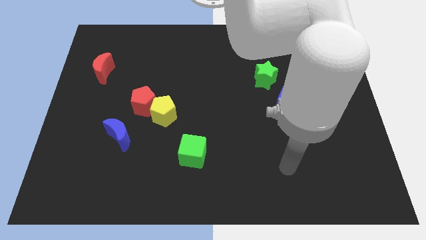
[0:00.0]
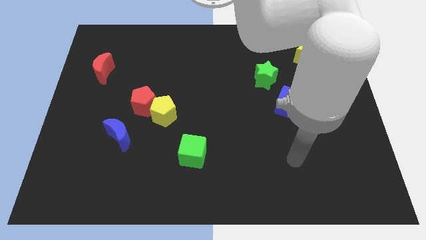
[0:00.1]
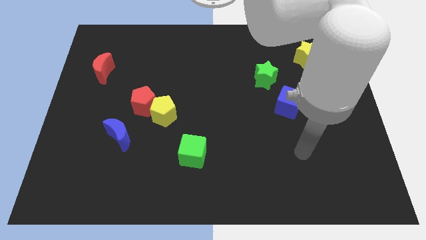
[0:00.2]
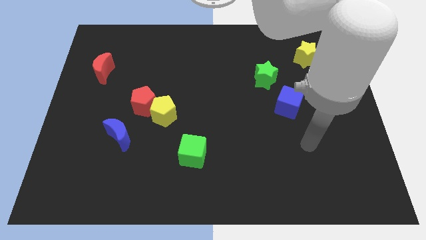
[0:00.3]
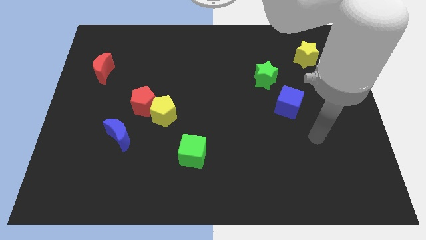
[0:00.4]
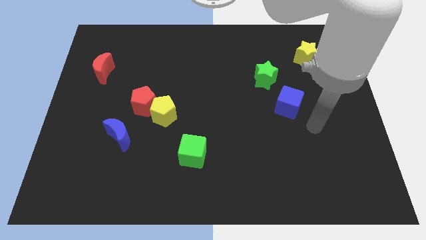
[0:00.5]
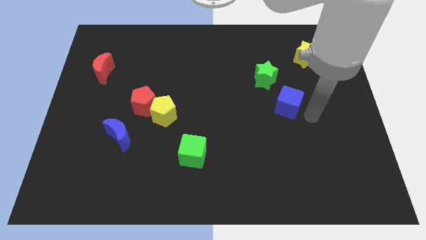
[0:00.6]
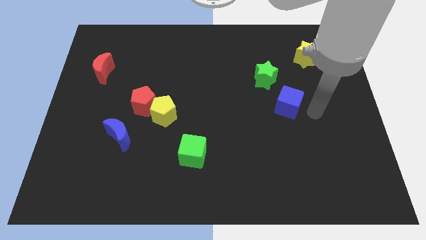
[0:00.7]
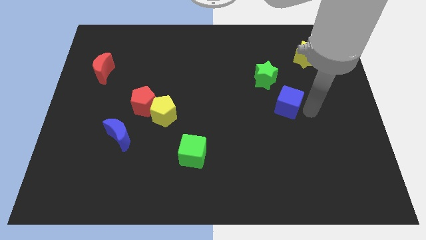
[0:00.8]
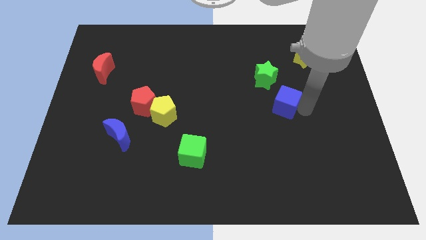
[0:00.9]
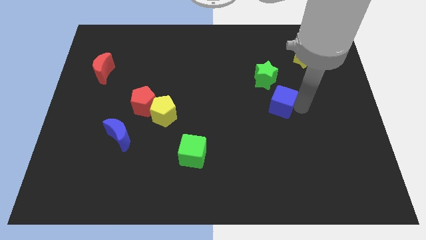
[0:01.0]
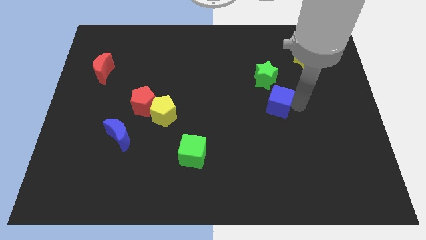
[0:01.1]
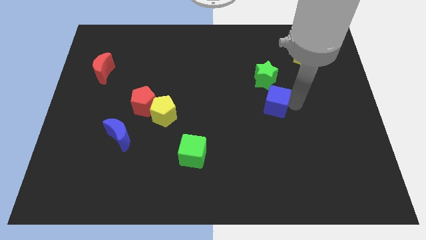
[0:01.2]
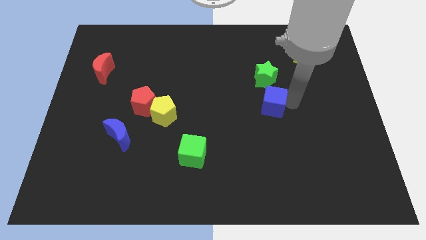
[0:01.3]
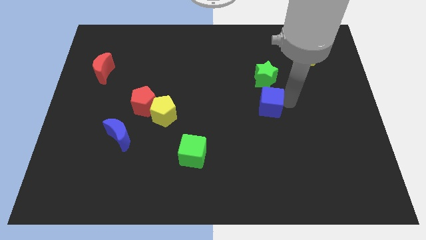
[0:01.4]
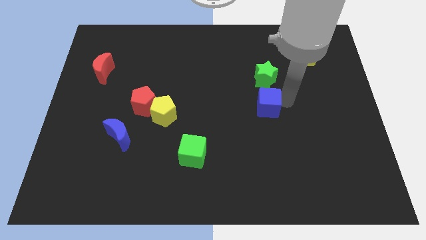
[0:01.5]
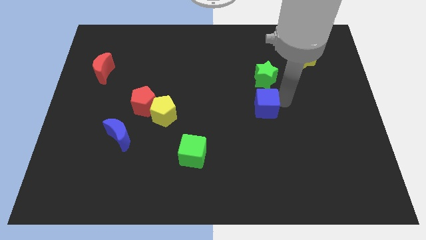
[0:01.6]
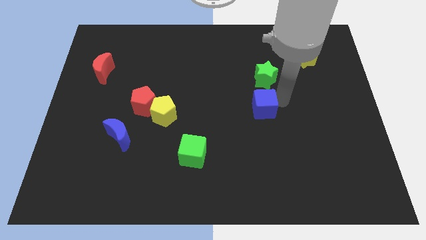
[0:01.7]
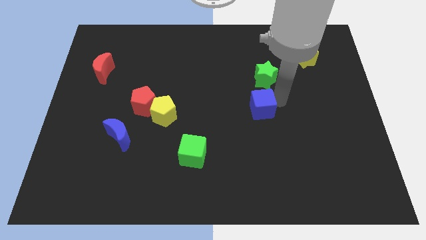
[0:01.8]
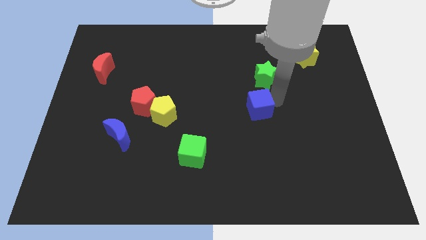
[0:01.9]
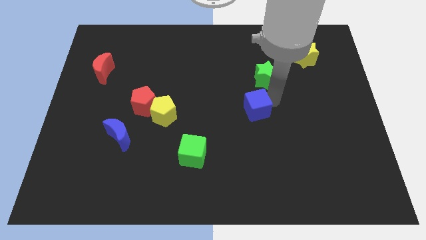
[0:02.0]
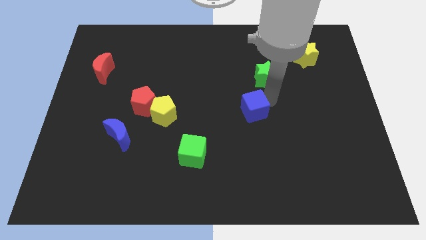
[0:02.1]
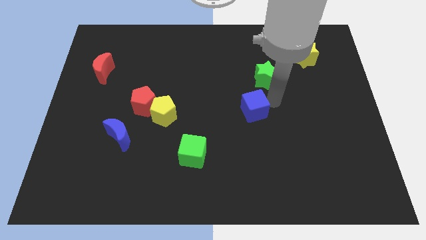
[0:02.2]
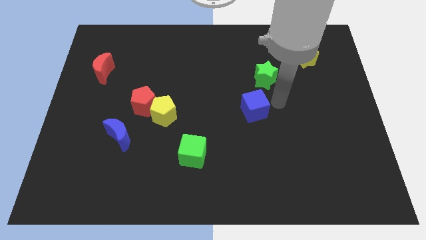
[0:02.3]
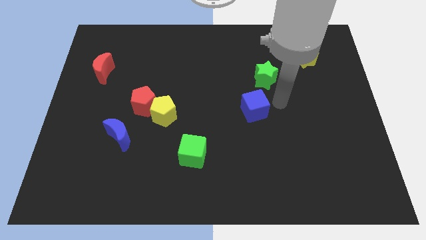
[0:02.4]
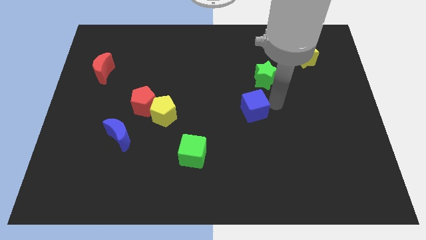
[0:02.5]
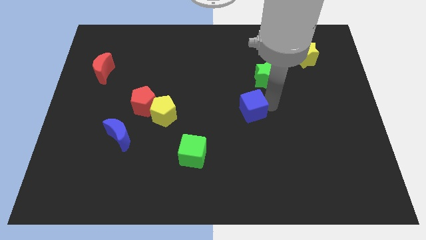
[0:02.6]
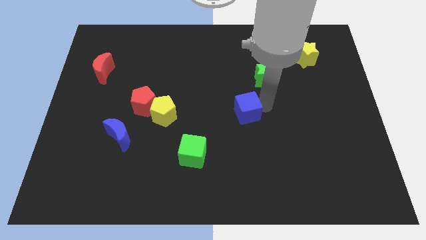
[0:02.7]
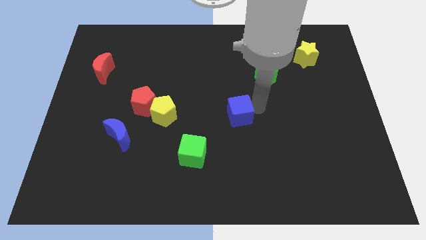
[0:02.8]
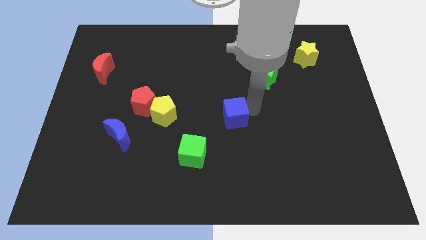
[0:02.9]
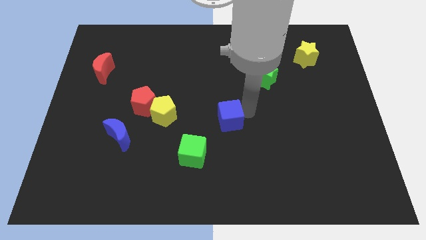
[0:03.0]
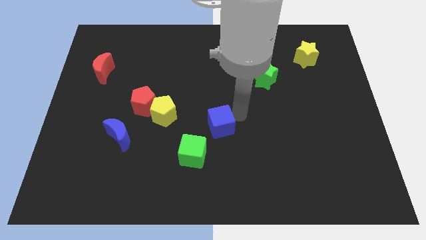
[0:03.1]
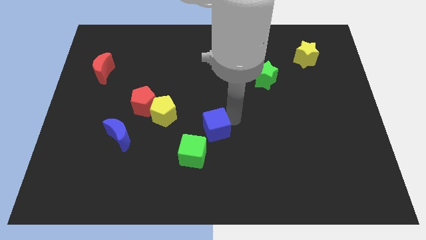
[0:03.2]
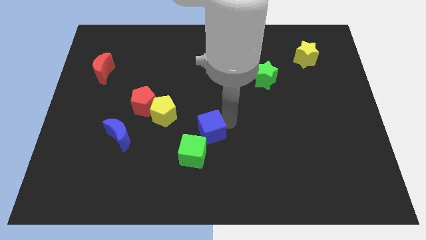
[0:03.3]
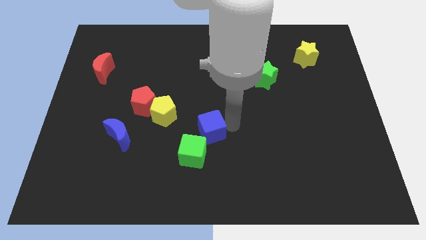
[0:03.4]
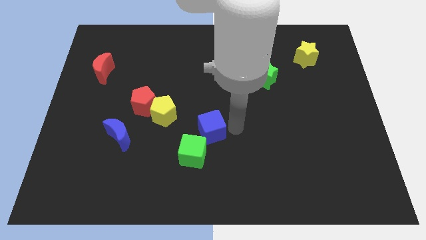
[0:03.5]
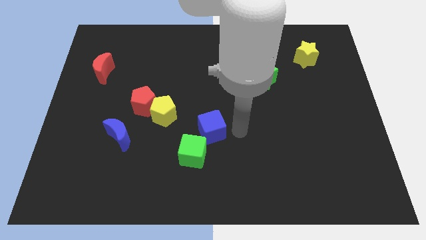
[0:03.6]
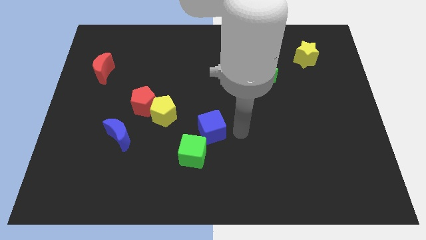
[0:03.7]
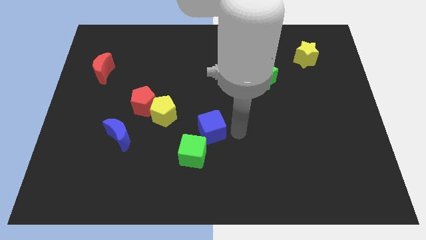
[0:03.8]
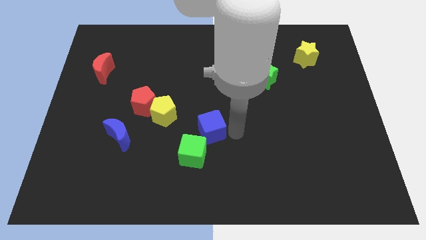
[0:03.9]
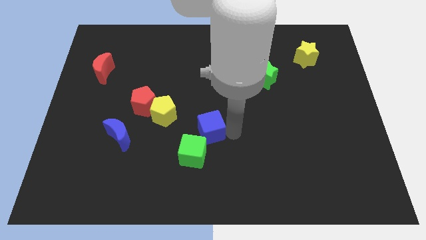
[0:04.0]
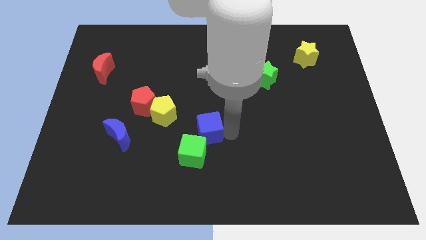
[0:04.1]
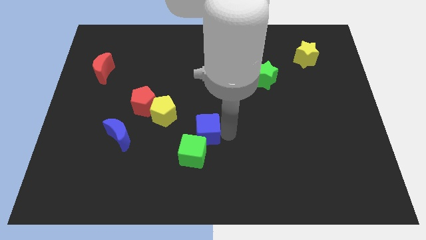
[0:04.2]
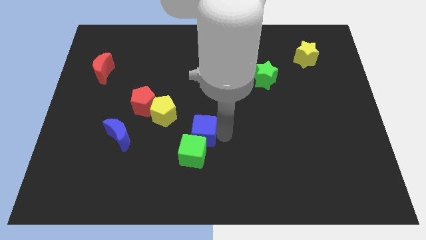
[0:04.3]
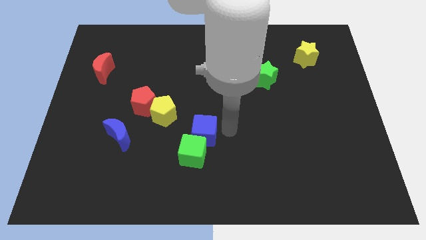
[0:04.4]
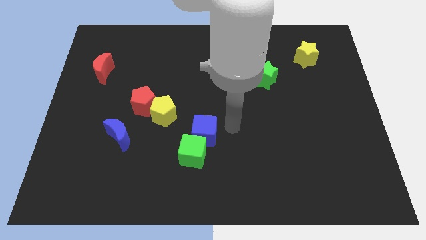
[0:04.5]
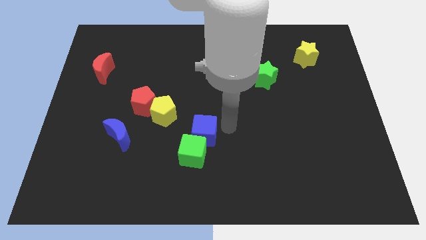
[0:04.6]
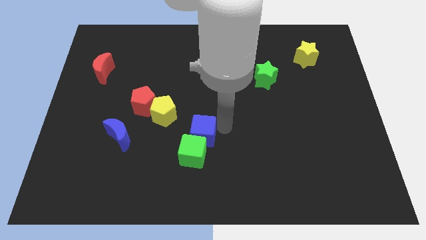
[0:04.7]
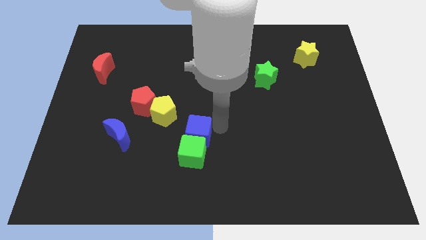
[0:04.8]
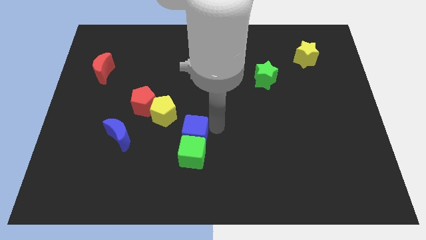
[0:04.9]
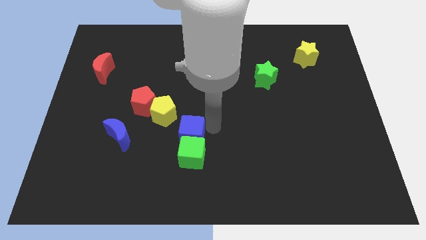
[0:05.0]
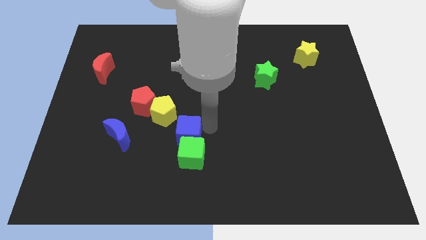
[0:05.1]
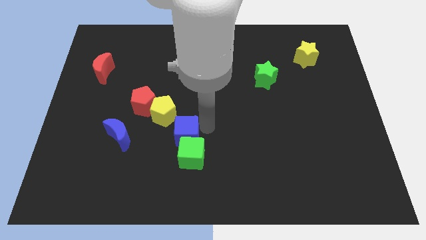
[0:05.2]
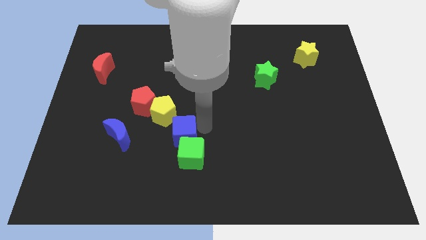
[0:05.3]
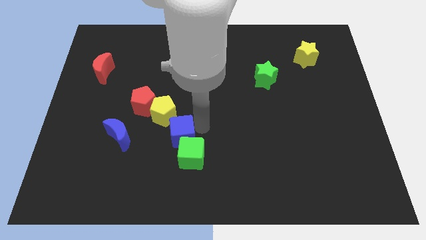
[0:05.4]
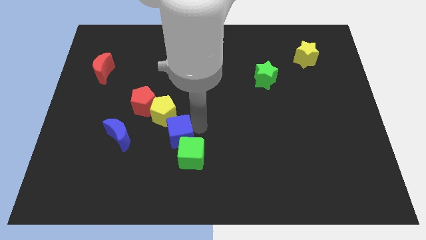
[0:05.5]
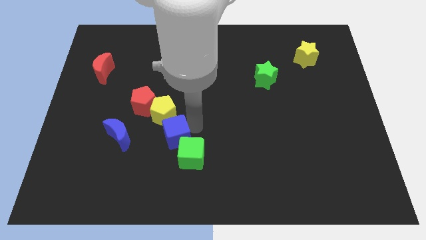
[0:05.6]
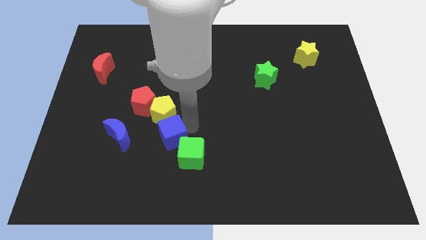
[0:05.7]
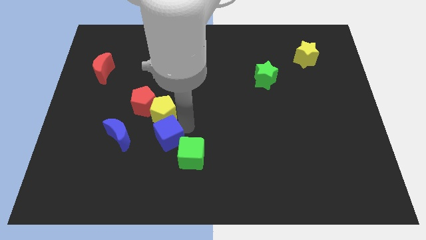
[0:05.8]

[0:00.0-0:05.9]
slide the blue cube to the left of the green cube

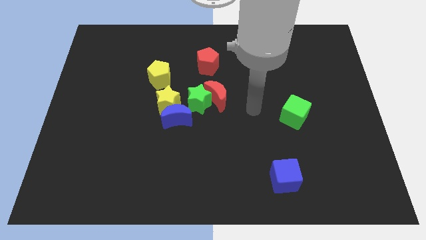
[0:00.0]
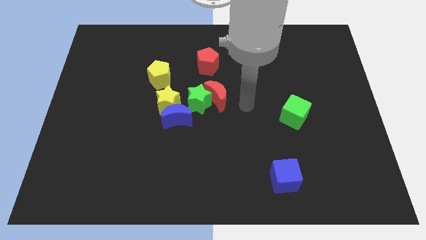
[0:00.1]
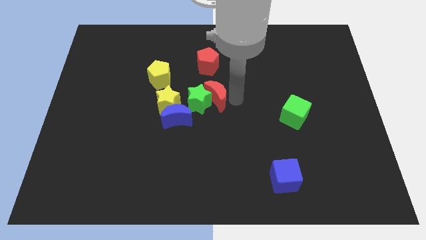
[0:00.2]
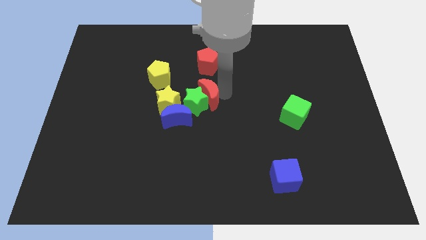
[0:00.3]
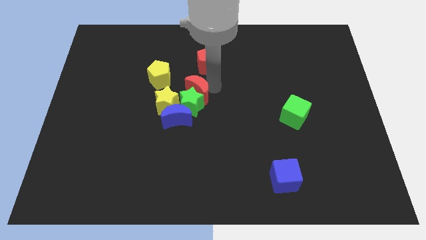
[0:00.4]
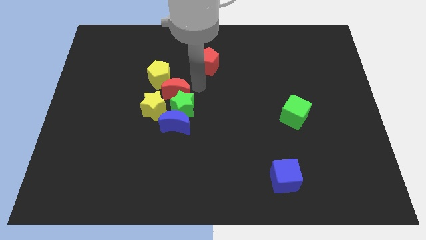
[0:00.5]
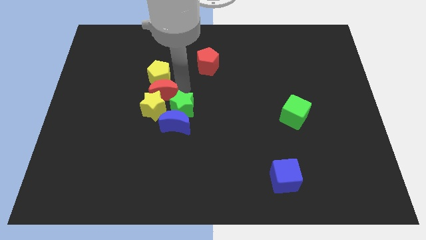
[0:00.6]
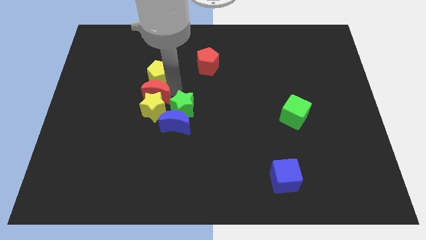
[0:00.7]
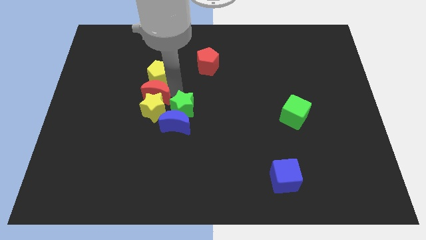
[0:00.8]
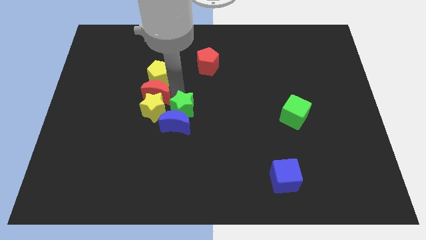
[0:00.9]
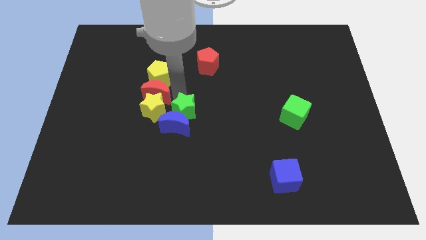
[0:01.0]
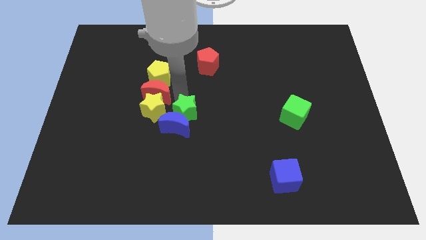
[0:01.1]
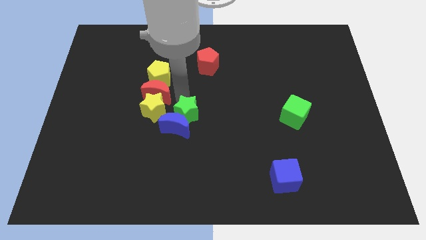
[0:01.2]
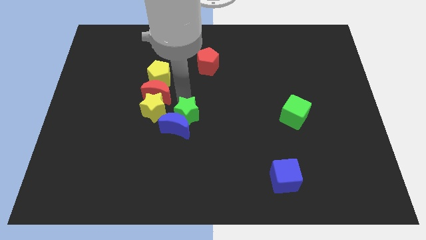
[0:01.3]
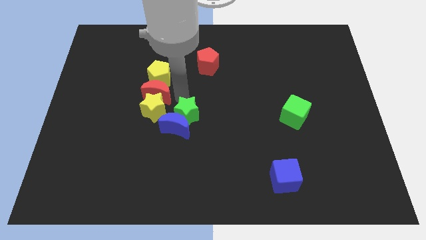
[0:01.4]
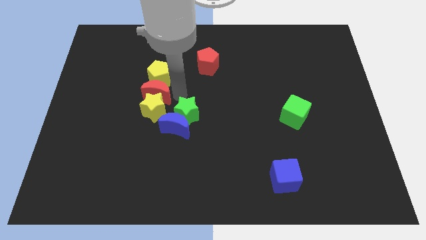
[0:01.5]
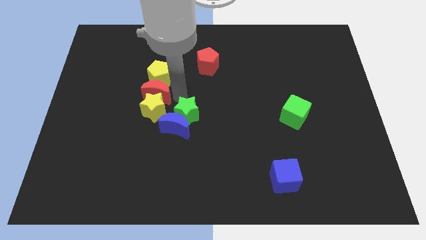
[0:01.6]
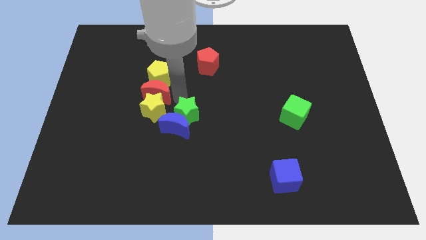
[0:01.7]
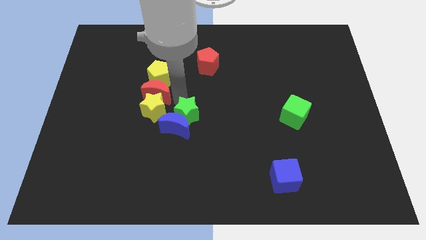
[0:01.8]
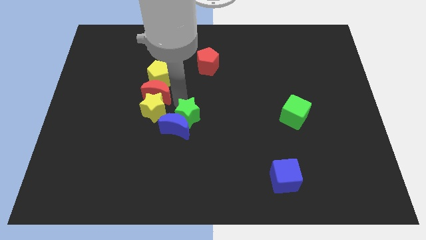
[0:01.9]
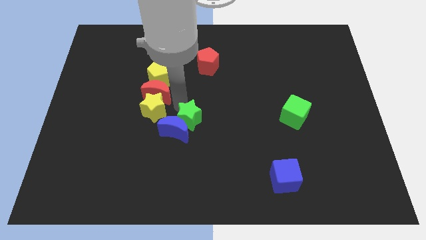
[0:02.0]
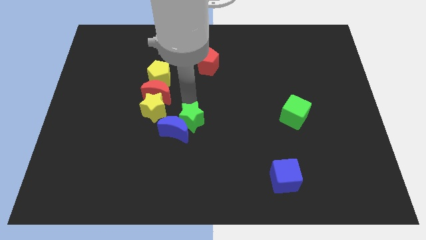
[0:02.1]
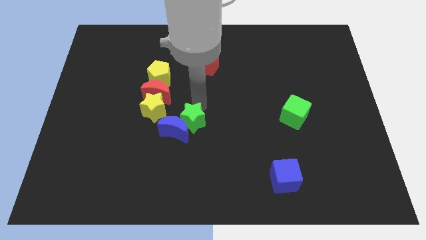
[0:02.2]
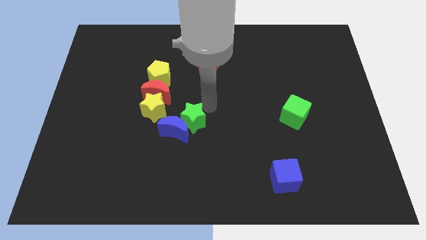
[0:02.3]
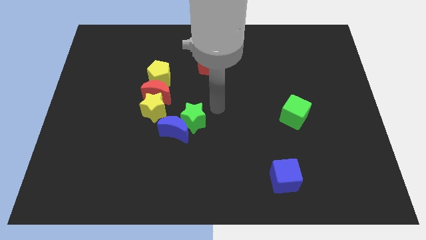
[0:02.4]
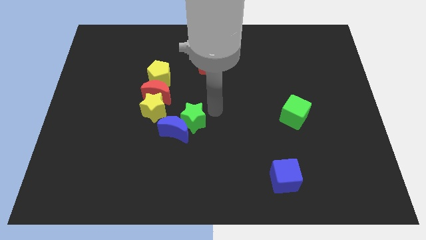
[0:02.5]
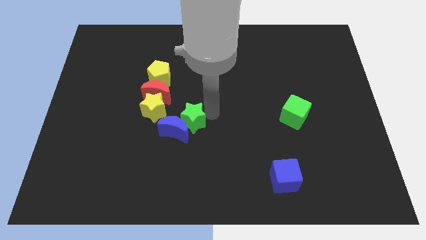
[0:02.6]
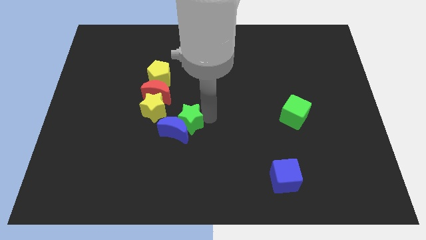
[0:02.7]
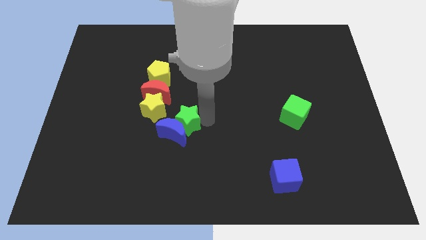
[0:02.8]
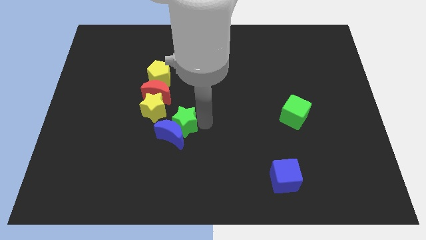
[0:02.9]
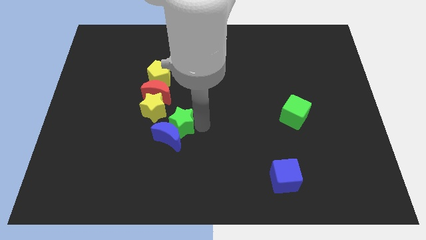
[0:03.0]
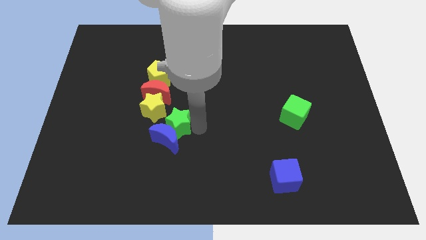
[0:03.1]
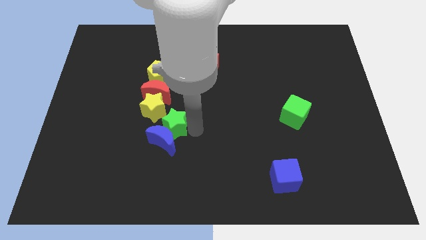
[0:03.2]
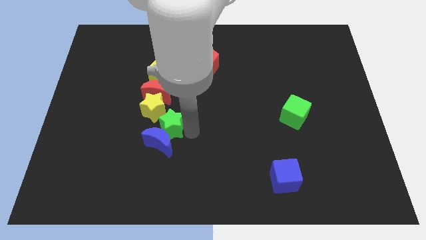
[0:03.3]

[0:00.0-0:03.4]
move the green star below the yellow star
